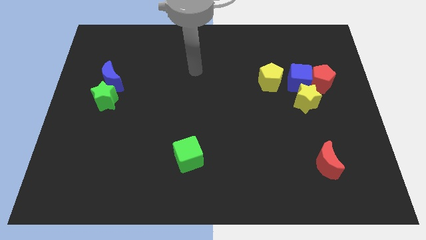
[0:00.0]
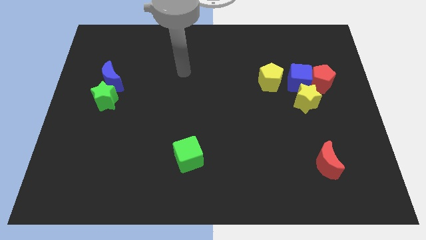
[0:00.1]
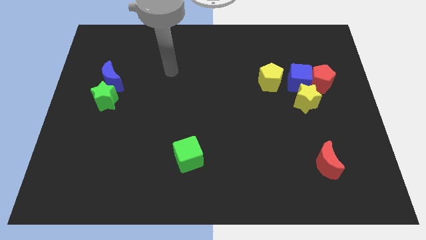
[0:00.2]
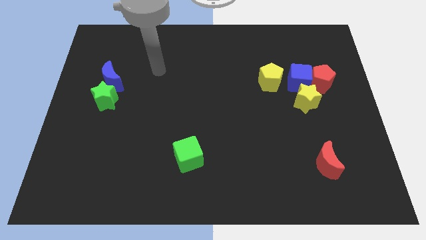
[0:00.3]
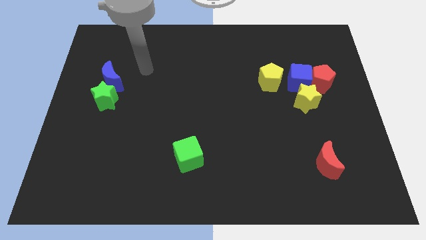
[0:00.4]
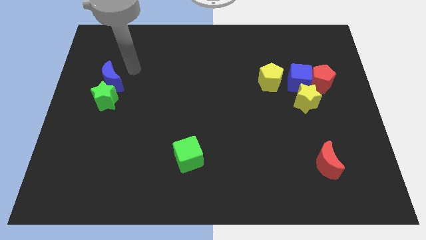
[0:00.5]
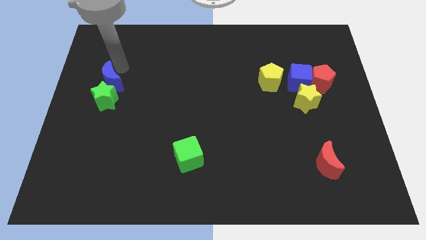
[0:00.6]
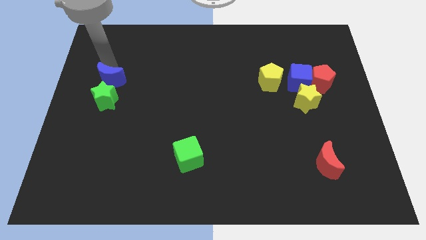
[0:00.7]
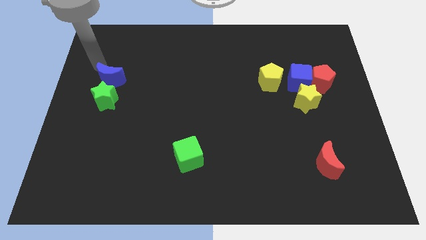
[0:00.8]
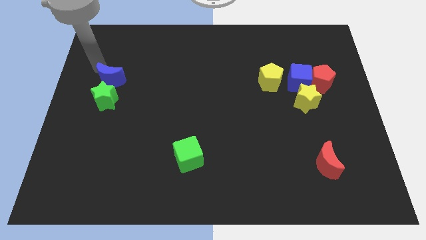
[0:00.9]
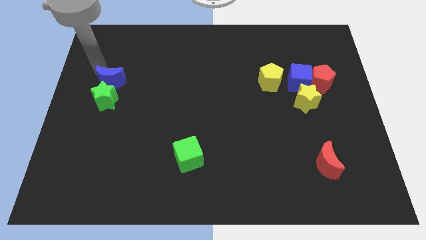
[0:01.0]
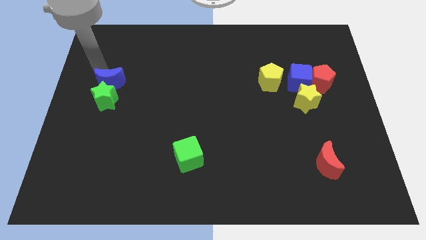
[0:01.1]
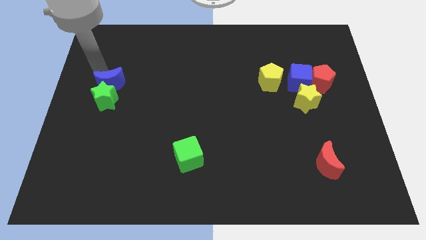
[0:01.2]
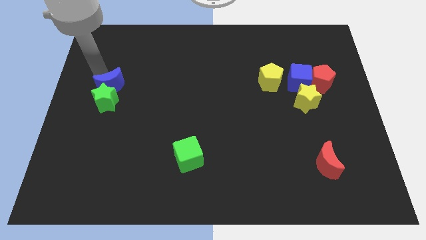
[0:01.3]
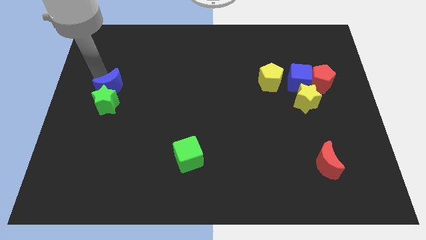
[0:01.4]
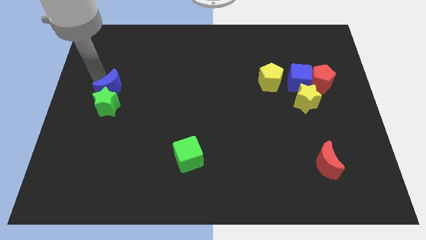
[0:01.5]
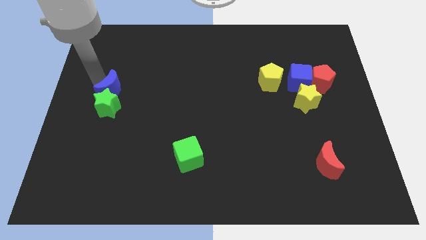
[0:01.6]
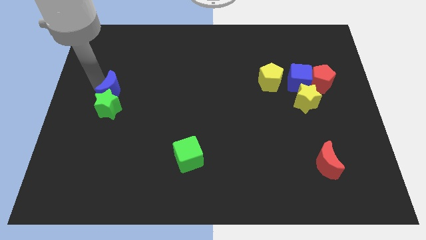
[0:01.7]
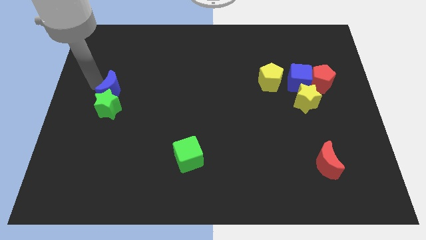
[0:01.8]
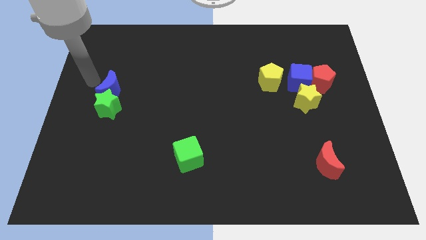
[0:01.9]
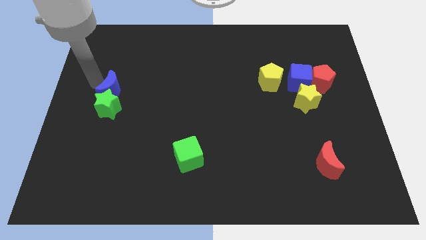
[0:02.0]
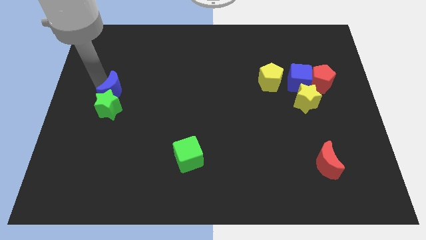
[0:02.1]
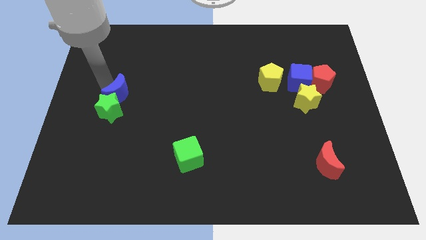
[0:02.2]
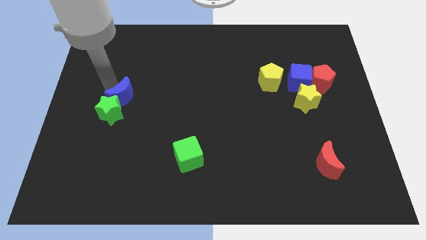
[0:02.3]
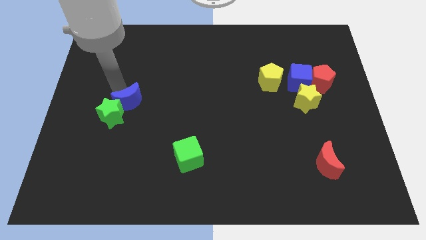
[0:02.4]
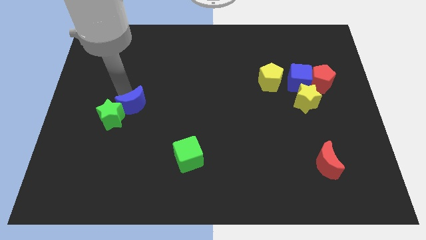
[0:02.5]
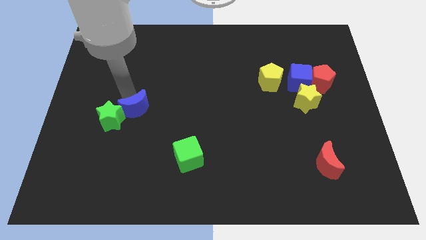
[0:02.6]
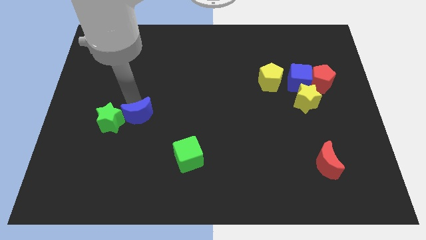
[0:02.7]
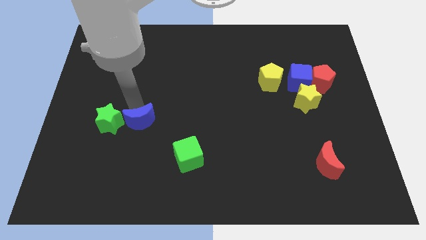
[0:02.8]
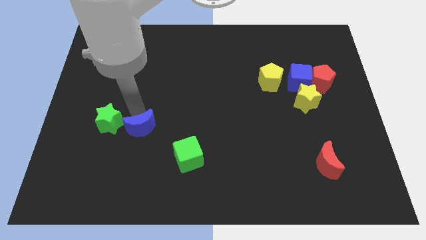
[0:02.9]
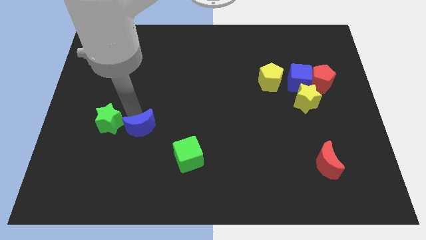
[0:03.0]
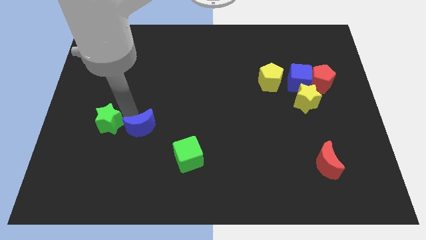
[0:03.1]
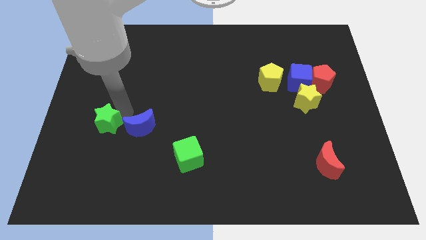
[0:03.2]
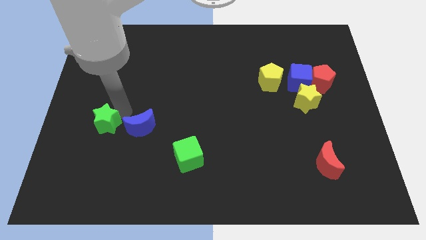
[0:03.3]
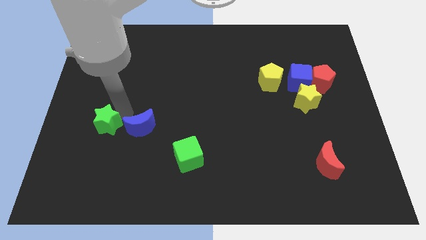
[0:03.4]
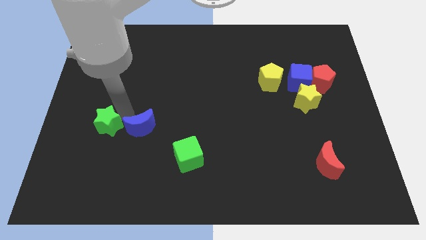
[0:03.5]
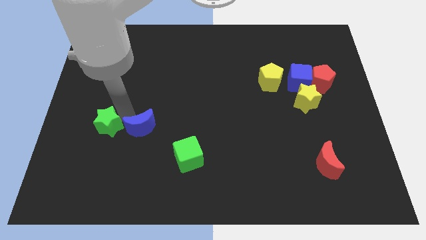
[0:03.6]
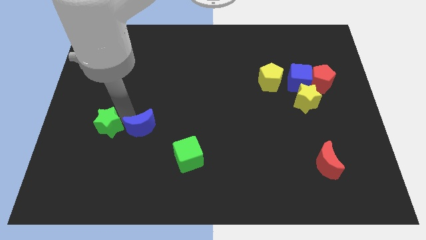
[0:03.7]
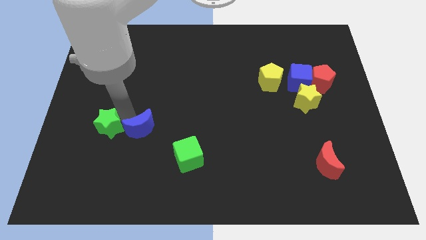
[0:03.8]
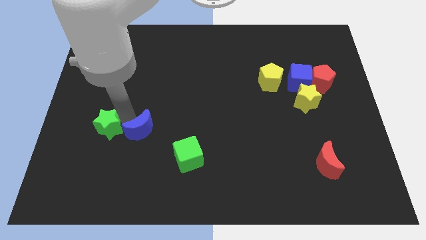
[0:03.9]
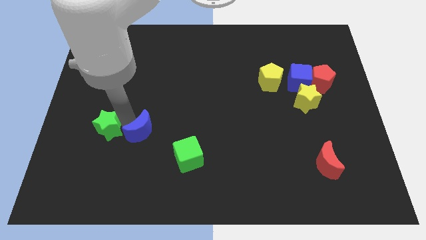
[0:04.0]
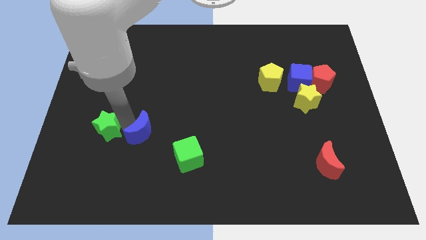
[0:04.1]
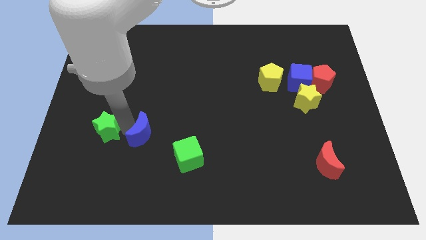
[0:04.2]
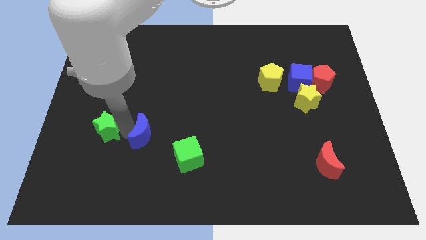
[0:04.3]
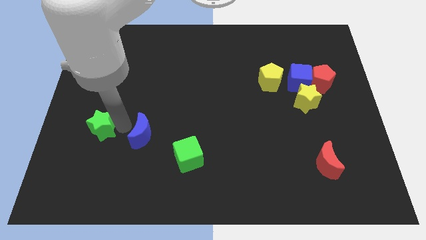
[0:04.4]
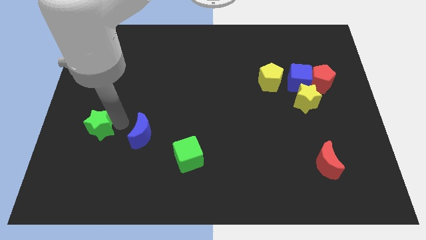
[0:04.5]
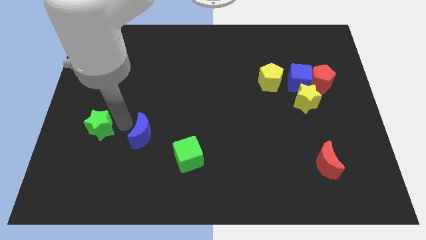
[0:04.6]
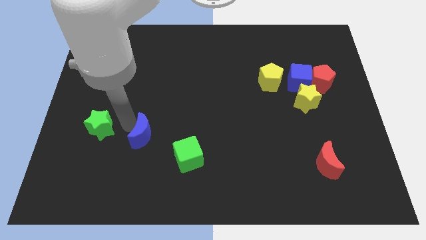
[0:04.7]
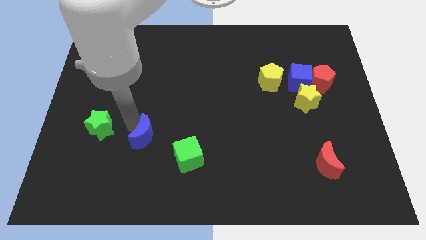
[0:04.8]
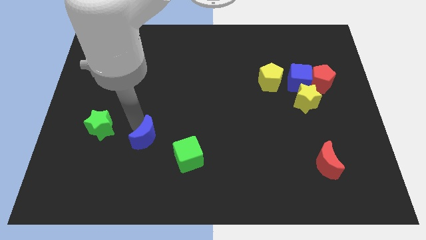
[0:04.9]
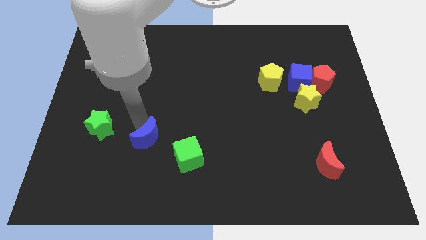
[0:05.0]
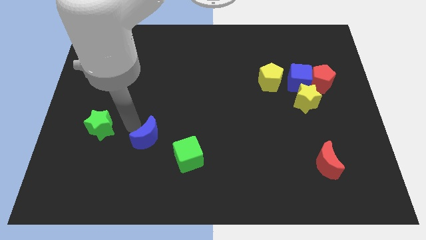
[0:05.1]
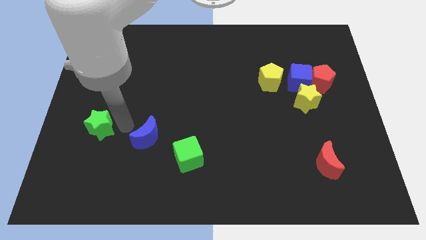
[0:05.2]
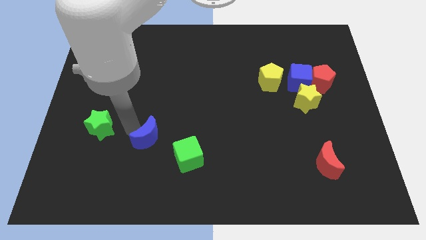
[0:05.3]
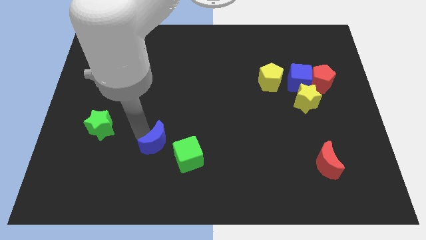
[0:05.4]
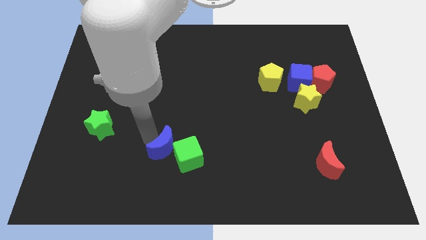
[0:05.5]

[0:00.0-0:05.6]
push the blue moon close to the green cube

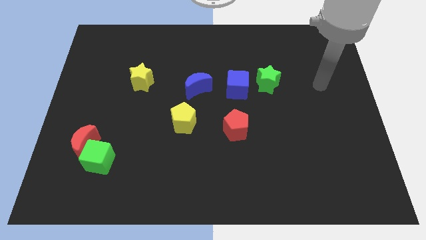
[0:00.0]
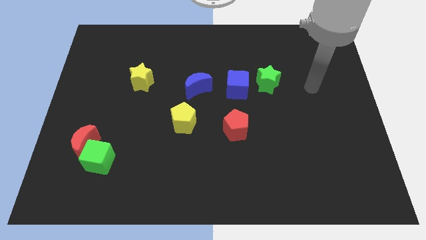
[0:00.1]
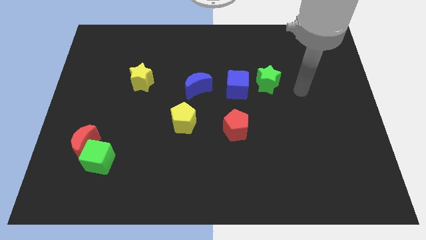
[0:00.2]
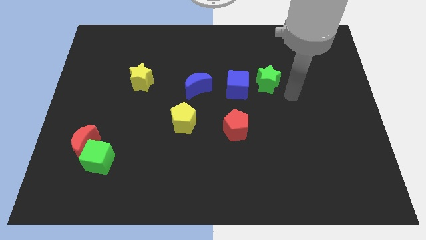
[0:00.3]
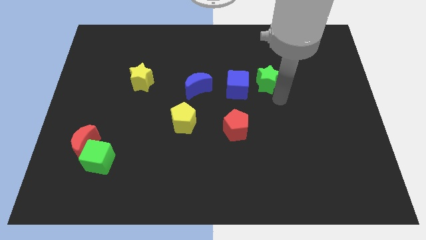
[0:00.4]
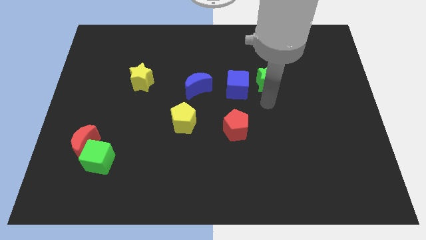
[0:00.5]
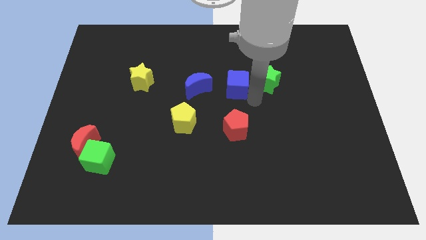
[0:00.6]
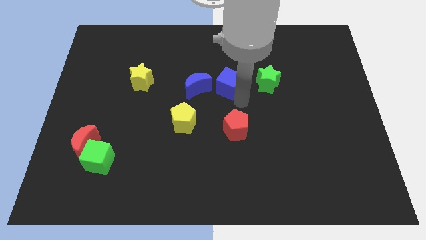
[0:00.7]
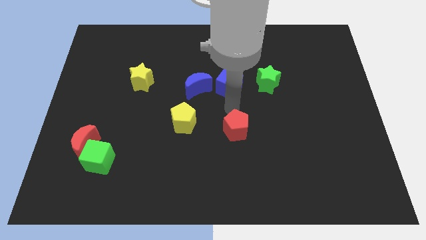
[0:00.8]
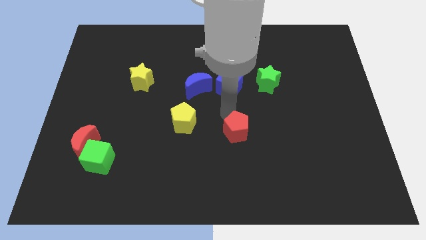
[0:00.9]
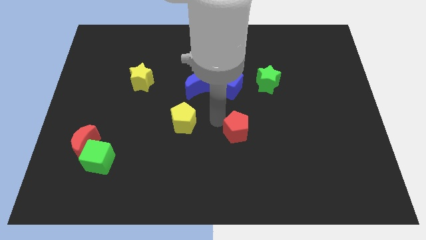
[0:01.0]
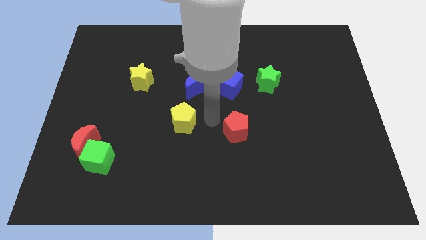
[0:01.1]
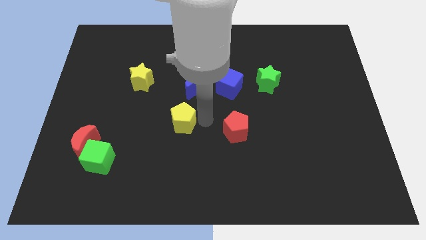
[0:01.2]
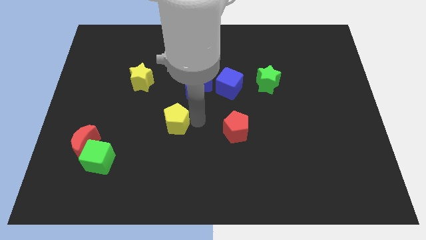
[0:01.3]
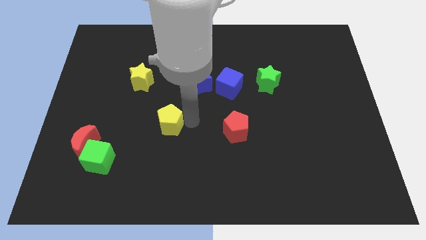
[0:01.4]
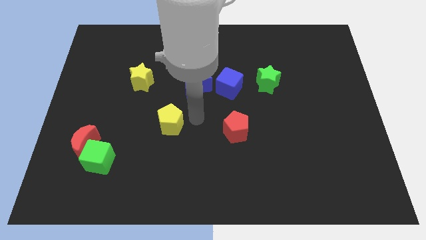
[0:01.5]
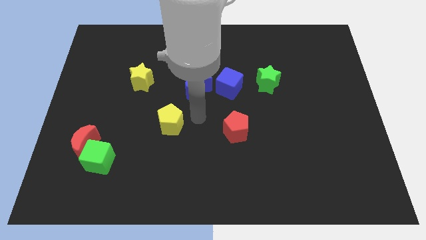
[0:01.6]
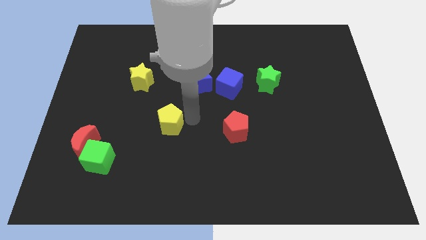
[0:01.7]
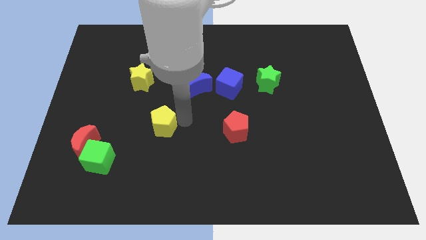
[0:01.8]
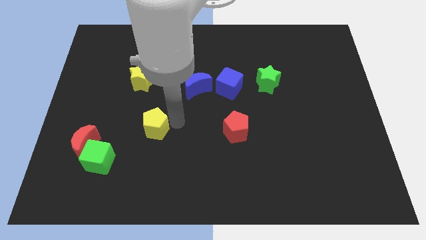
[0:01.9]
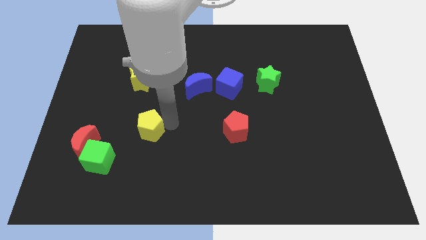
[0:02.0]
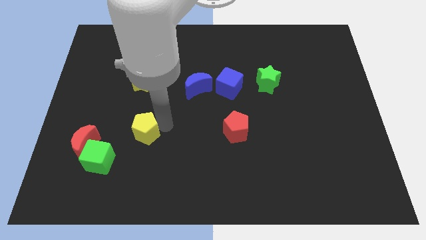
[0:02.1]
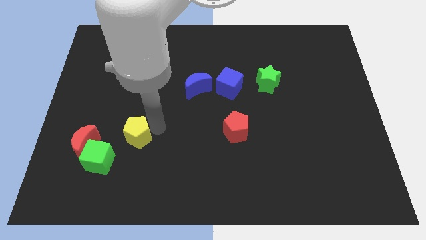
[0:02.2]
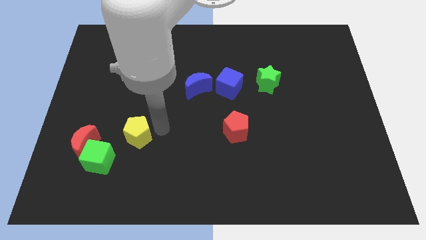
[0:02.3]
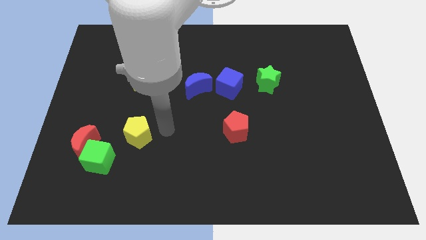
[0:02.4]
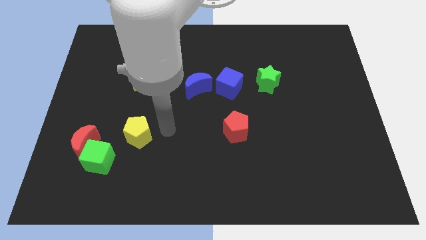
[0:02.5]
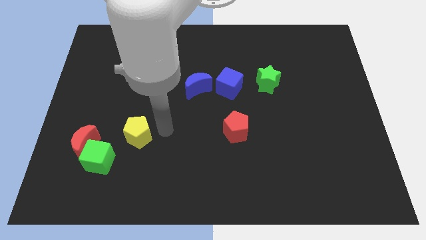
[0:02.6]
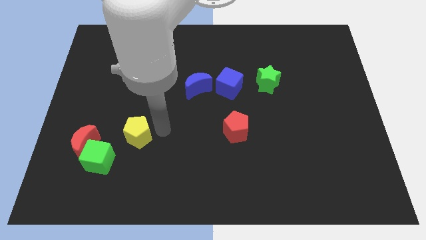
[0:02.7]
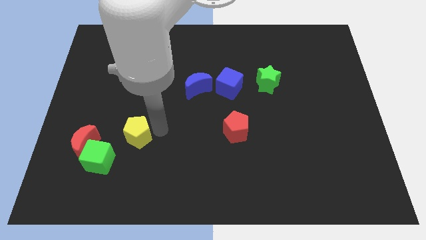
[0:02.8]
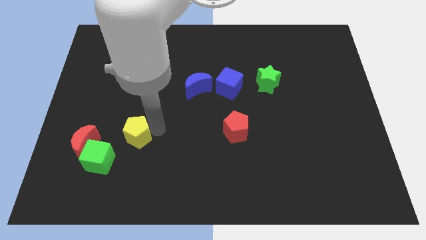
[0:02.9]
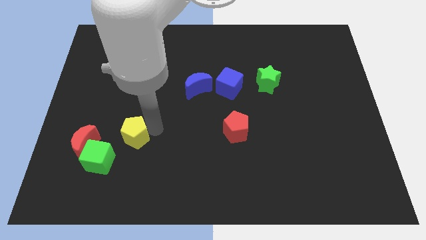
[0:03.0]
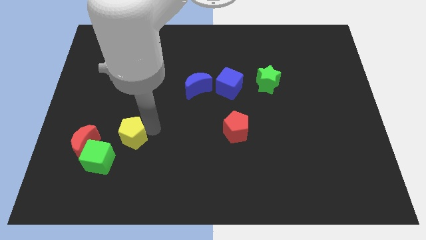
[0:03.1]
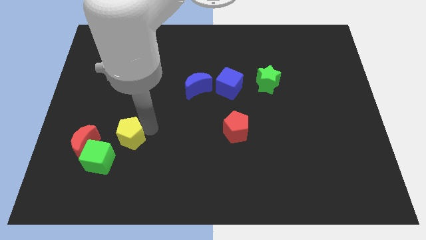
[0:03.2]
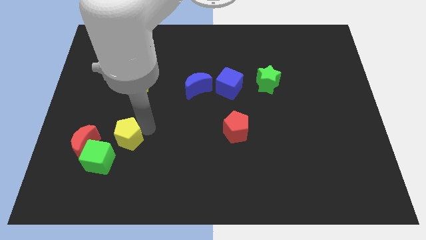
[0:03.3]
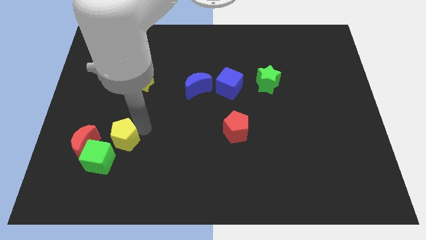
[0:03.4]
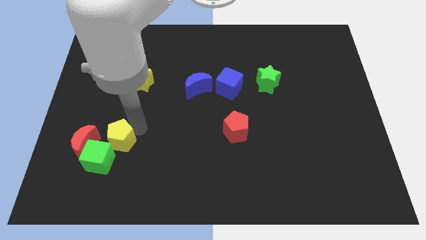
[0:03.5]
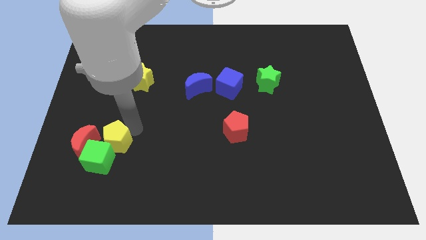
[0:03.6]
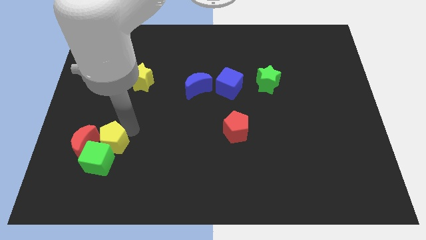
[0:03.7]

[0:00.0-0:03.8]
put the yellow pentagon next to the red moon
